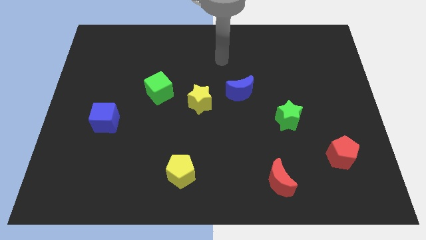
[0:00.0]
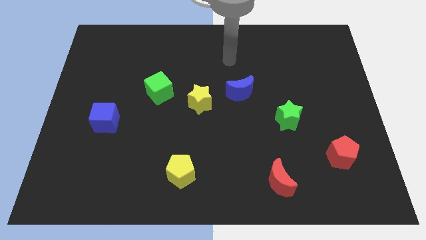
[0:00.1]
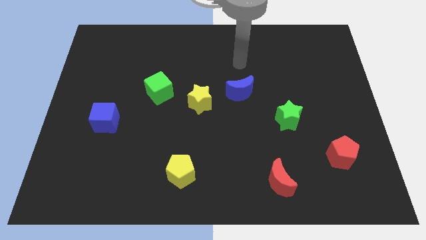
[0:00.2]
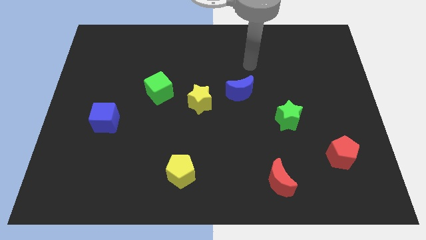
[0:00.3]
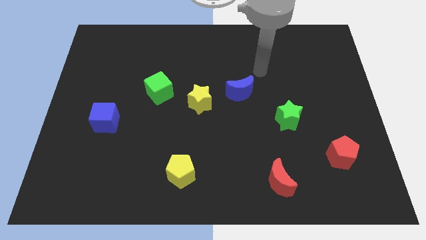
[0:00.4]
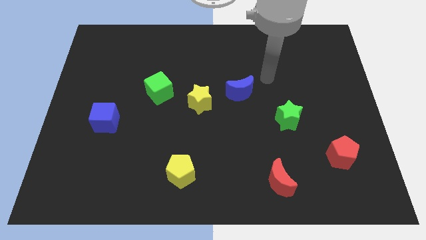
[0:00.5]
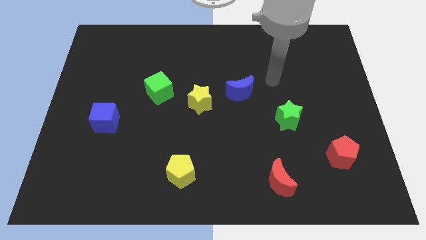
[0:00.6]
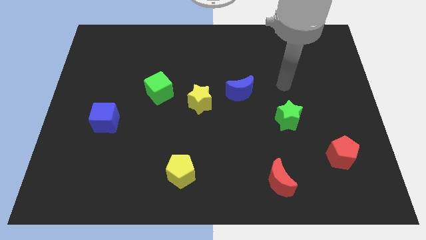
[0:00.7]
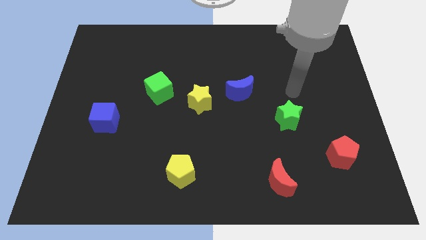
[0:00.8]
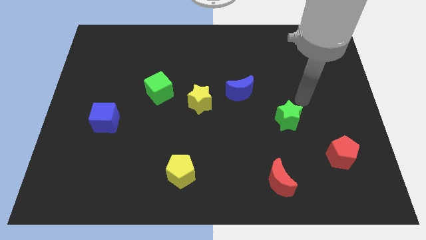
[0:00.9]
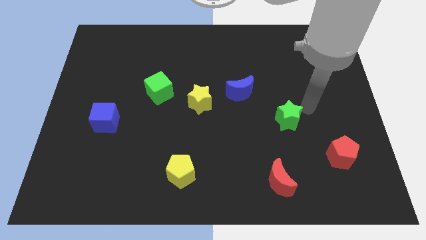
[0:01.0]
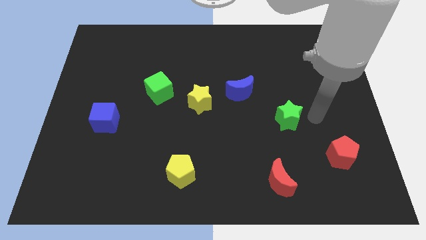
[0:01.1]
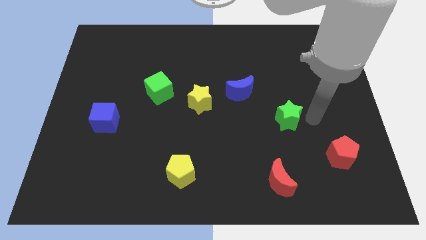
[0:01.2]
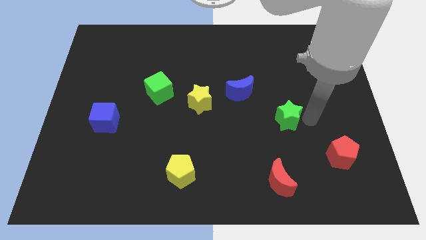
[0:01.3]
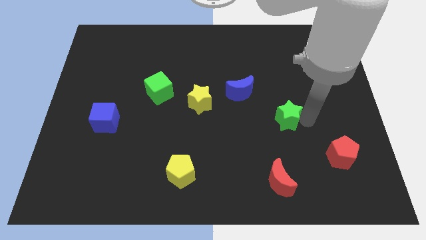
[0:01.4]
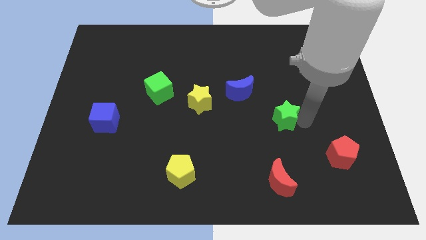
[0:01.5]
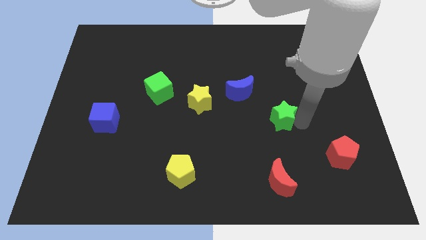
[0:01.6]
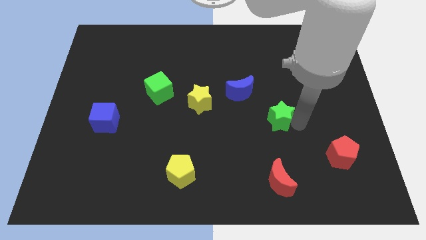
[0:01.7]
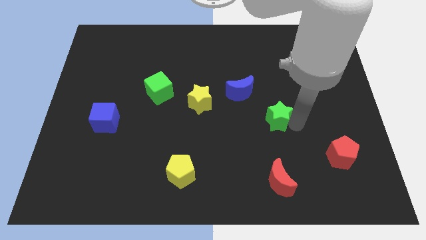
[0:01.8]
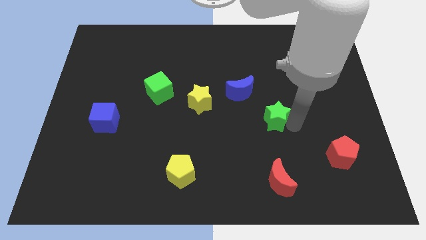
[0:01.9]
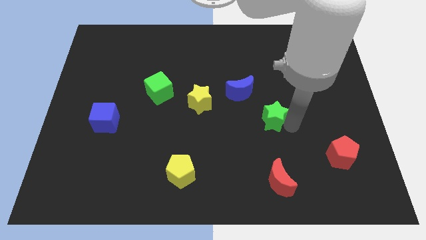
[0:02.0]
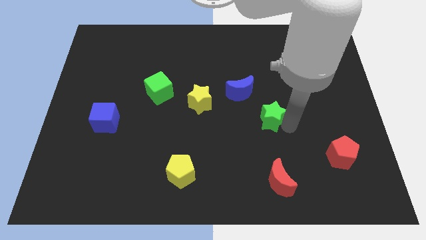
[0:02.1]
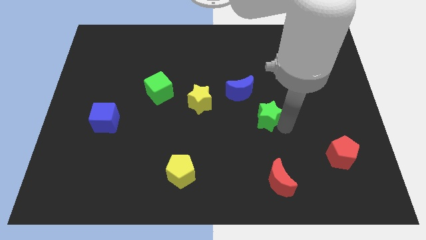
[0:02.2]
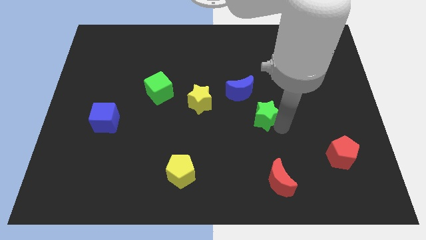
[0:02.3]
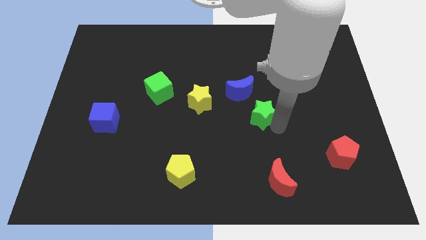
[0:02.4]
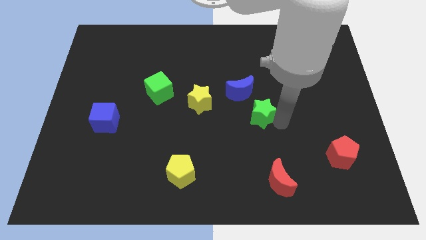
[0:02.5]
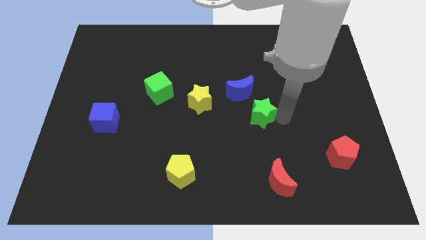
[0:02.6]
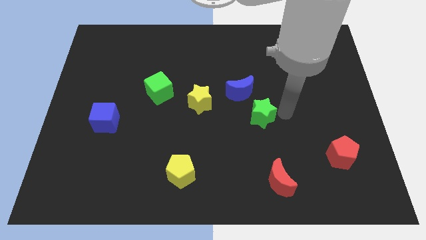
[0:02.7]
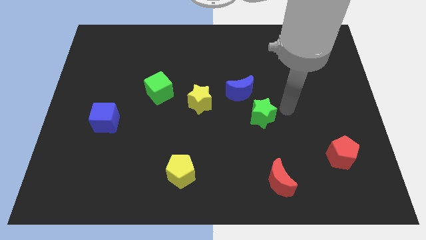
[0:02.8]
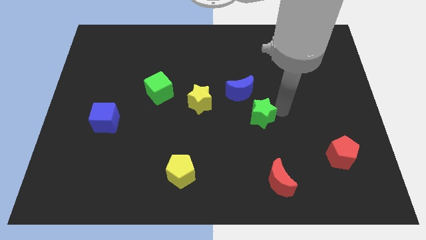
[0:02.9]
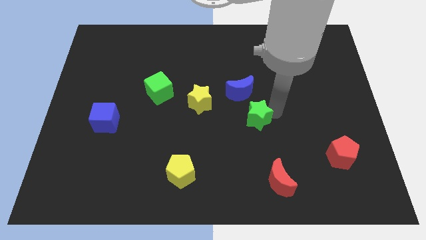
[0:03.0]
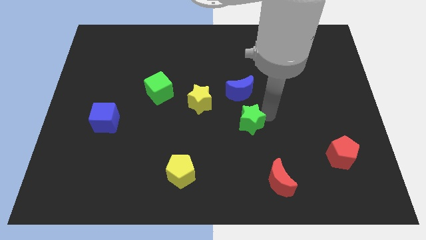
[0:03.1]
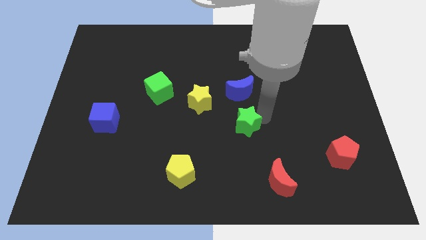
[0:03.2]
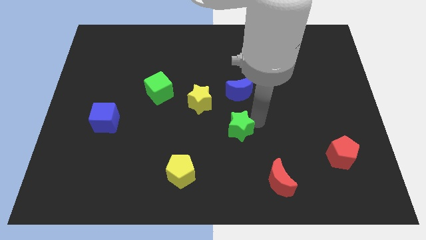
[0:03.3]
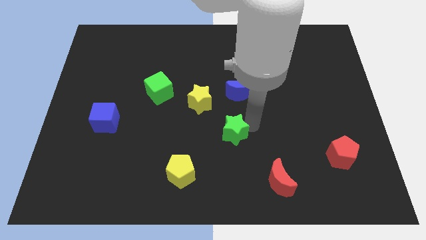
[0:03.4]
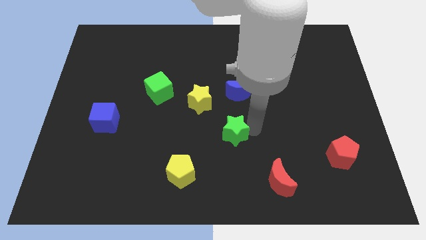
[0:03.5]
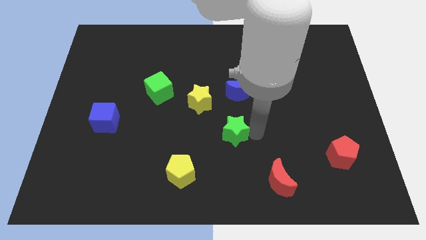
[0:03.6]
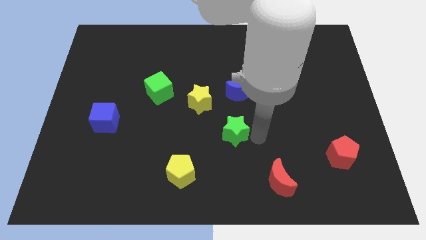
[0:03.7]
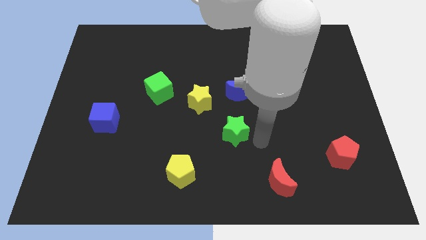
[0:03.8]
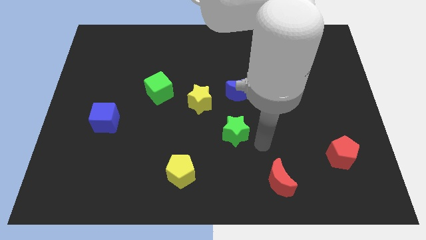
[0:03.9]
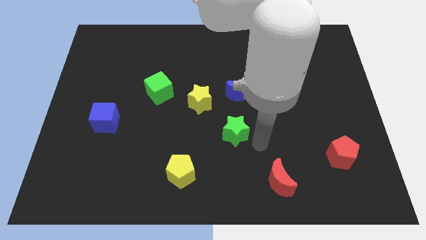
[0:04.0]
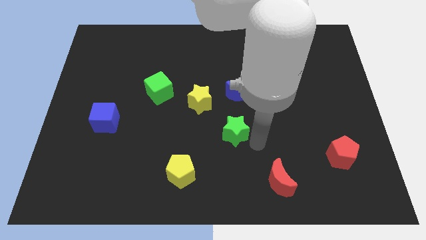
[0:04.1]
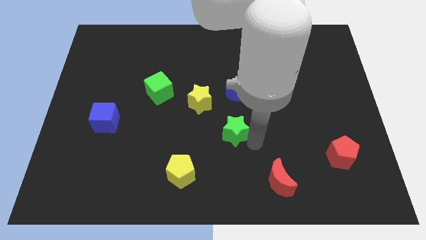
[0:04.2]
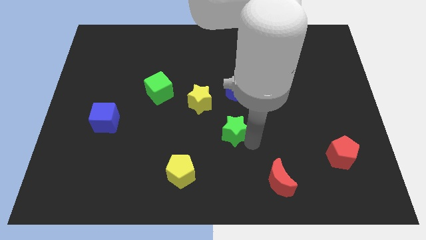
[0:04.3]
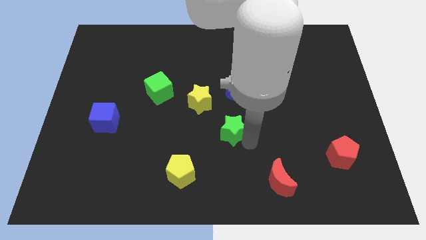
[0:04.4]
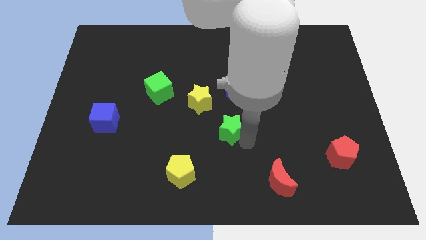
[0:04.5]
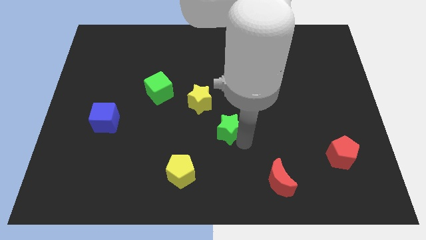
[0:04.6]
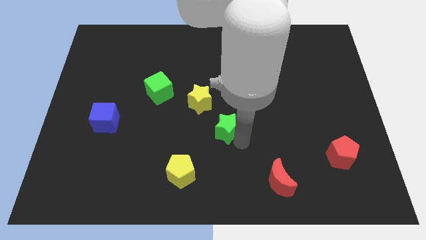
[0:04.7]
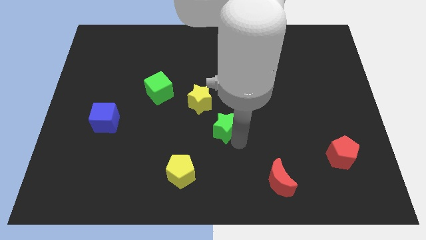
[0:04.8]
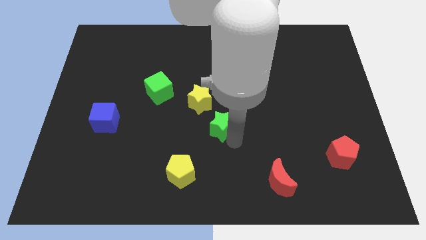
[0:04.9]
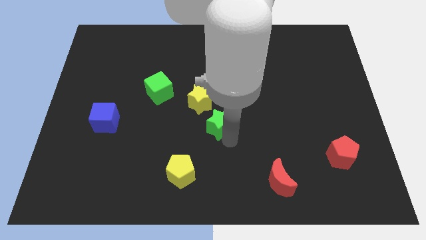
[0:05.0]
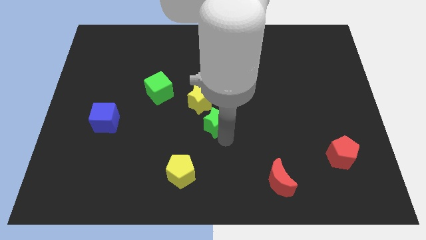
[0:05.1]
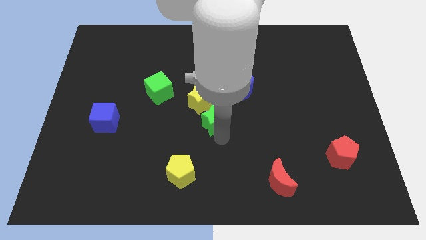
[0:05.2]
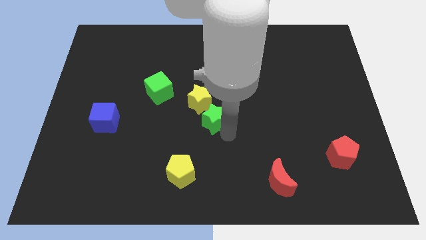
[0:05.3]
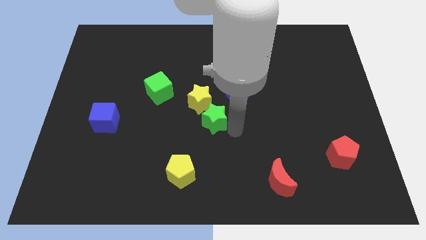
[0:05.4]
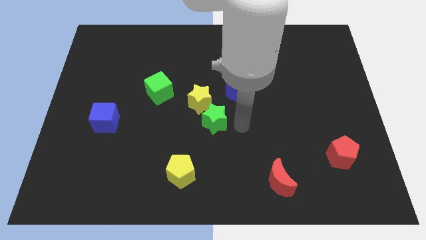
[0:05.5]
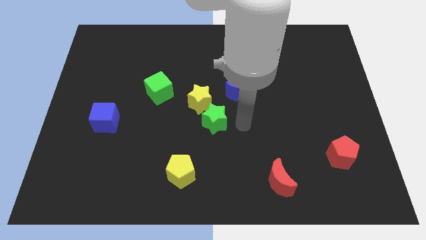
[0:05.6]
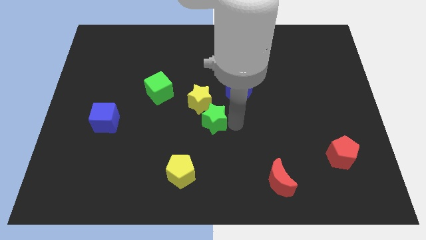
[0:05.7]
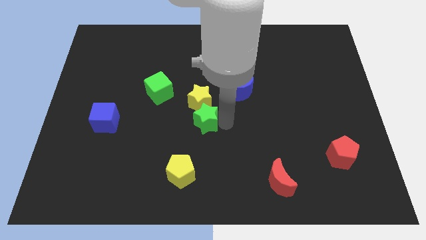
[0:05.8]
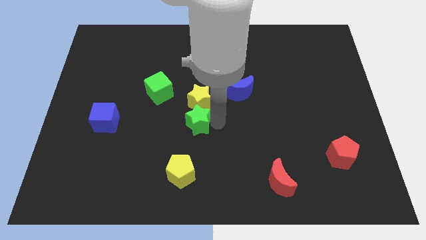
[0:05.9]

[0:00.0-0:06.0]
put the green star diagonally down and to the left of the yellow star

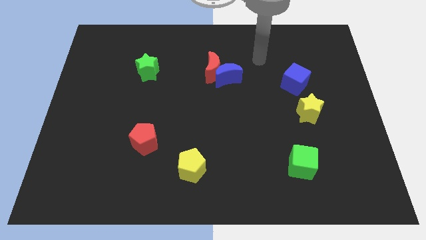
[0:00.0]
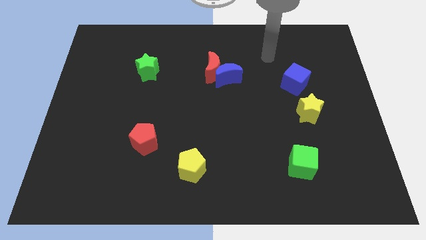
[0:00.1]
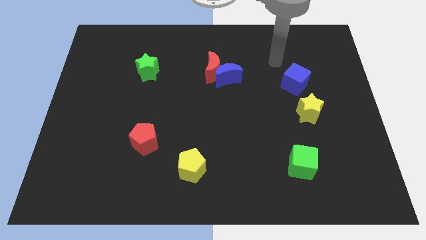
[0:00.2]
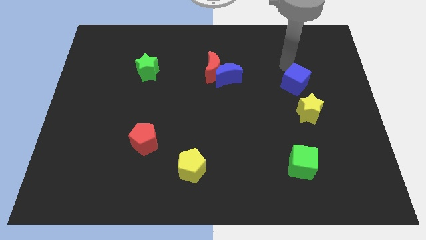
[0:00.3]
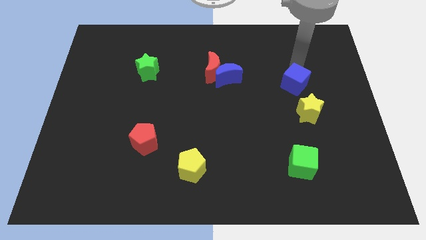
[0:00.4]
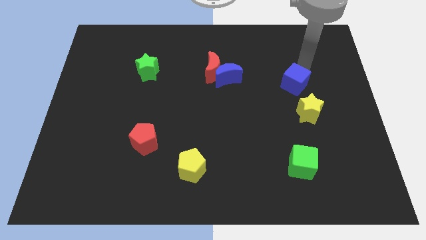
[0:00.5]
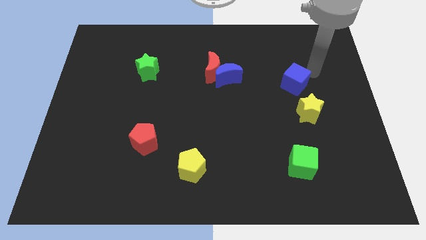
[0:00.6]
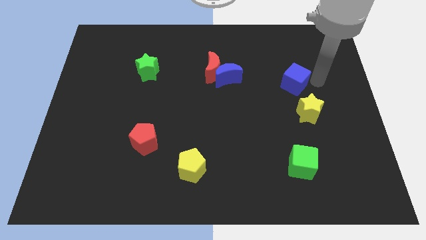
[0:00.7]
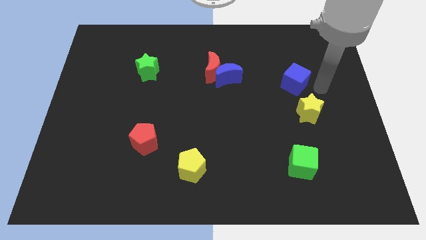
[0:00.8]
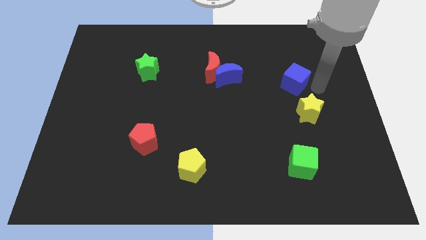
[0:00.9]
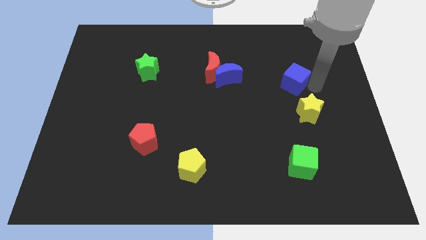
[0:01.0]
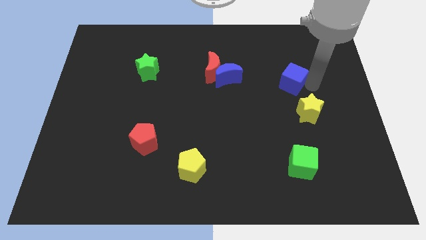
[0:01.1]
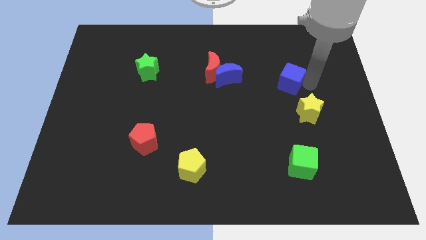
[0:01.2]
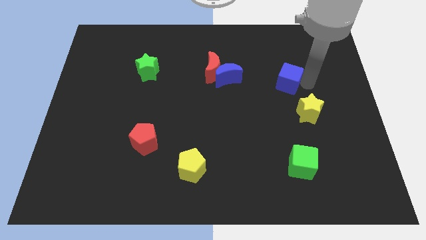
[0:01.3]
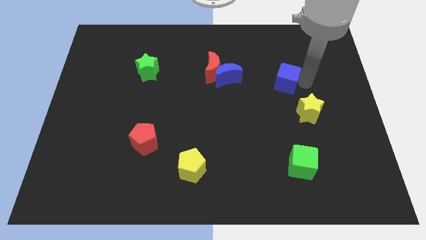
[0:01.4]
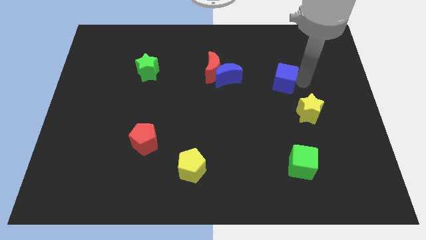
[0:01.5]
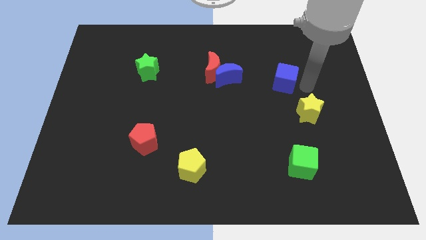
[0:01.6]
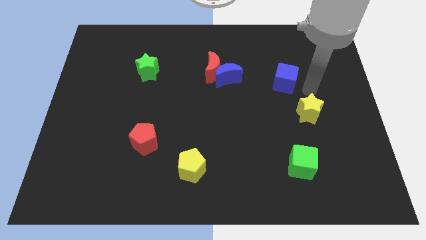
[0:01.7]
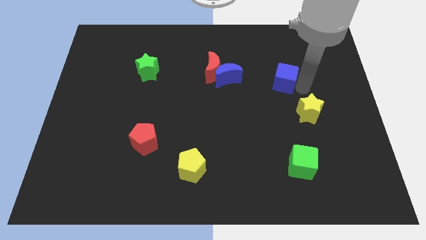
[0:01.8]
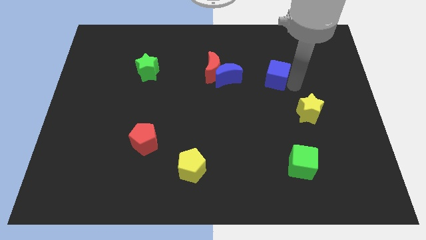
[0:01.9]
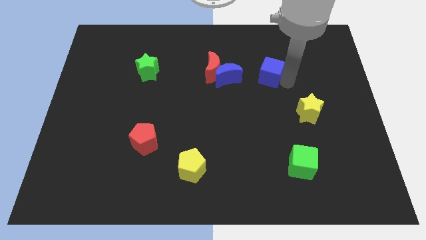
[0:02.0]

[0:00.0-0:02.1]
move the blue cube just right of the red moon
